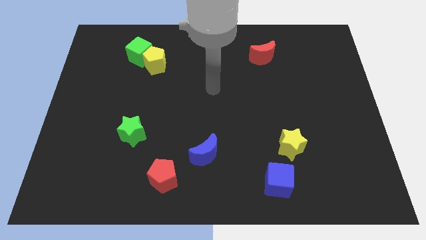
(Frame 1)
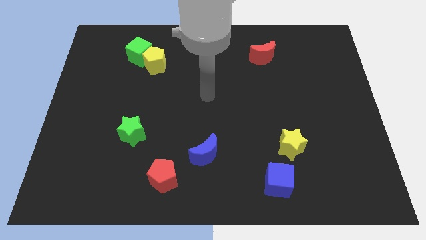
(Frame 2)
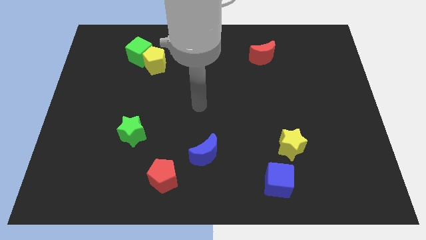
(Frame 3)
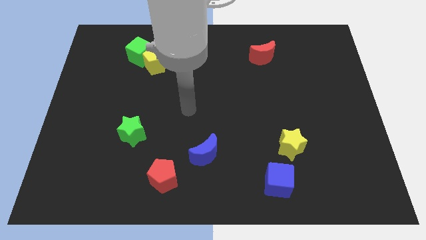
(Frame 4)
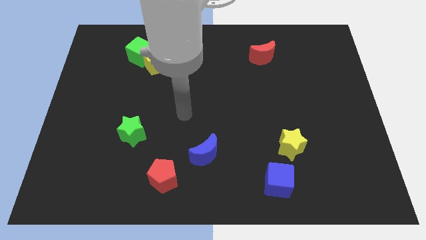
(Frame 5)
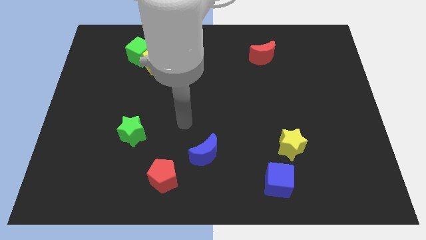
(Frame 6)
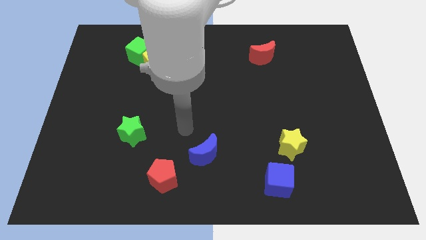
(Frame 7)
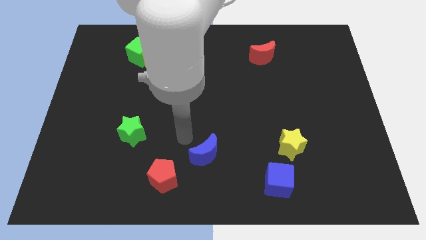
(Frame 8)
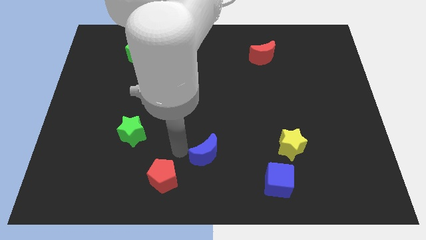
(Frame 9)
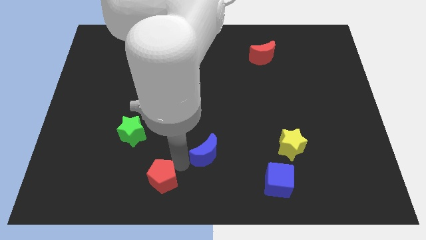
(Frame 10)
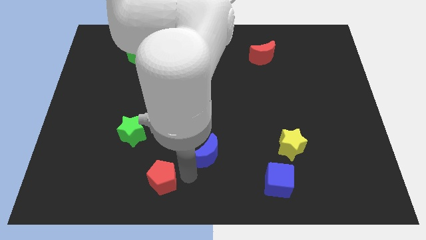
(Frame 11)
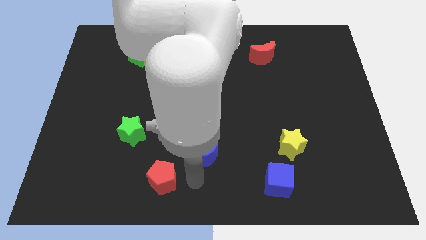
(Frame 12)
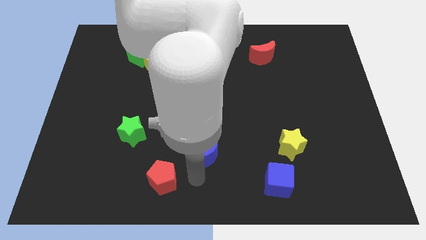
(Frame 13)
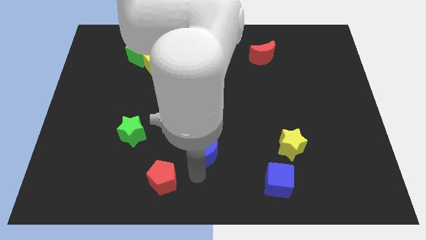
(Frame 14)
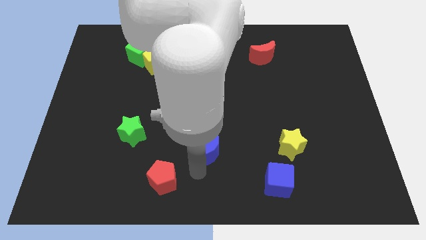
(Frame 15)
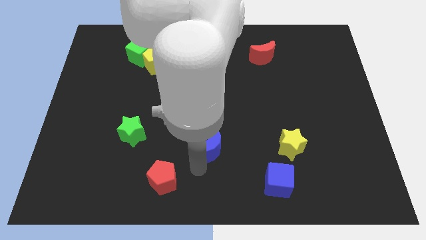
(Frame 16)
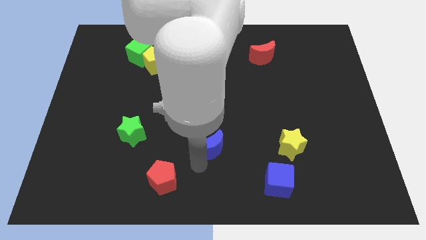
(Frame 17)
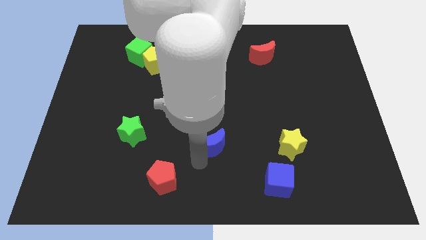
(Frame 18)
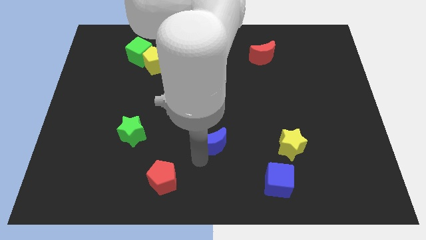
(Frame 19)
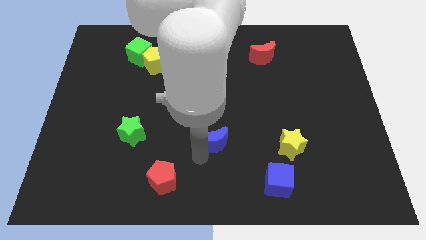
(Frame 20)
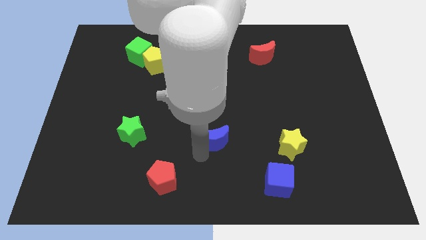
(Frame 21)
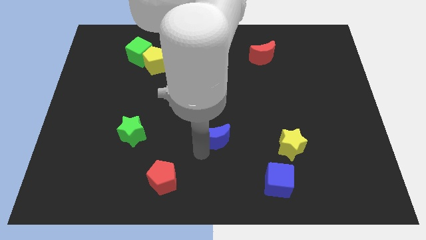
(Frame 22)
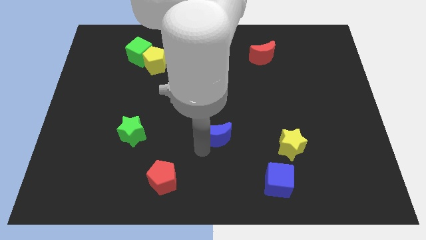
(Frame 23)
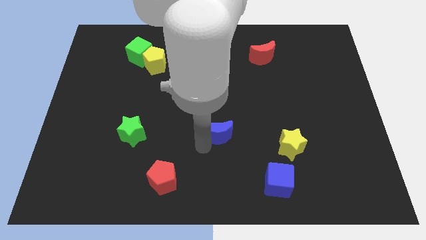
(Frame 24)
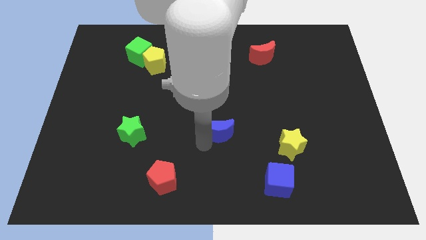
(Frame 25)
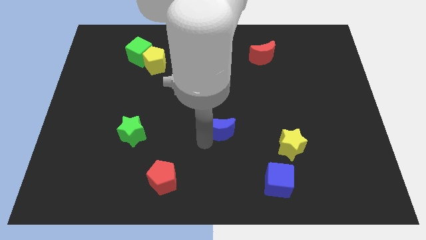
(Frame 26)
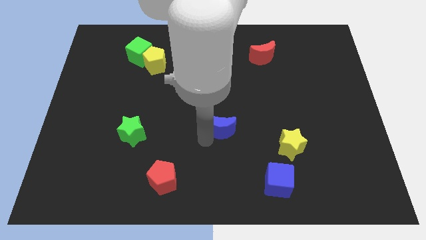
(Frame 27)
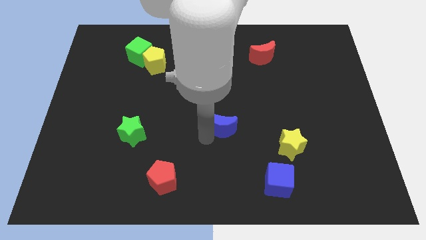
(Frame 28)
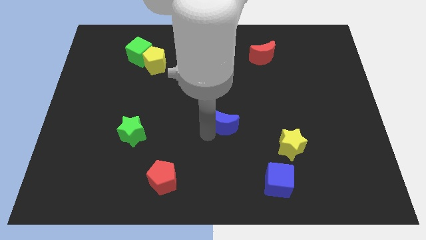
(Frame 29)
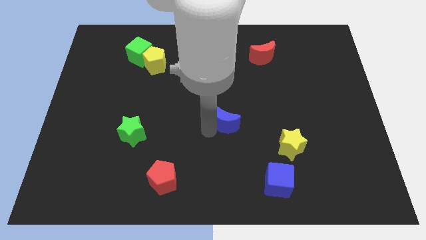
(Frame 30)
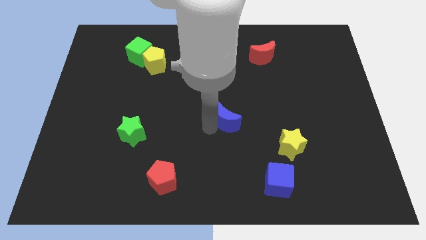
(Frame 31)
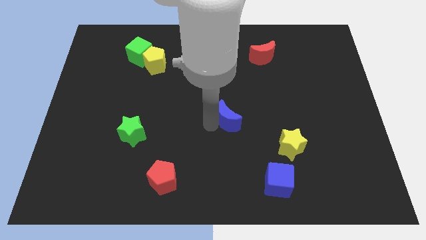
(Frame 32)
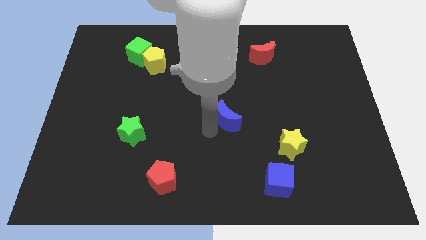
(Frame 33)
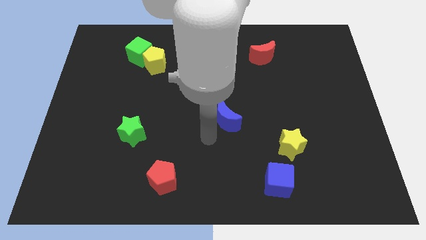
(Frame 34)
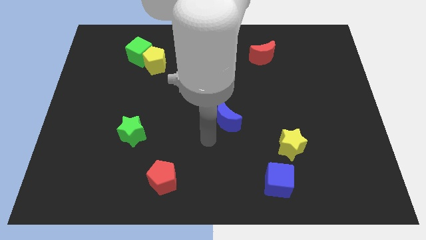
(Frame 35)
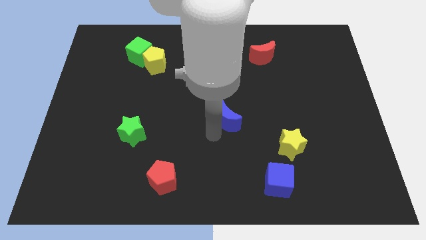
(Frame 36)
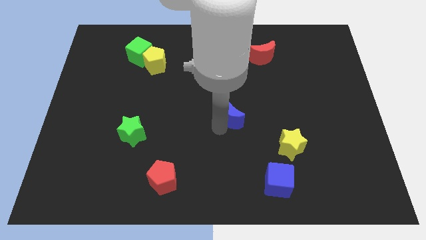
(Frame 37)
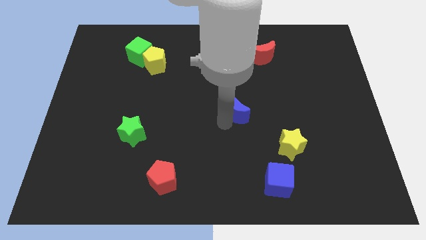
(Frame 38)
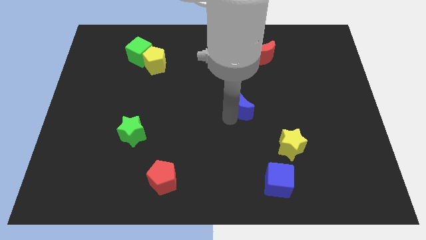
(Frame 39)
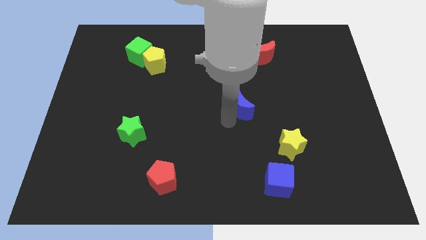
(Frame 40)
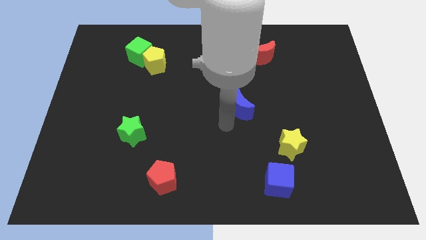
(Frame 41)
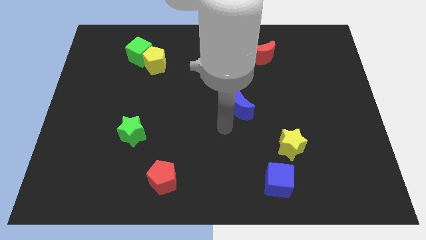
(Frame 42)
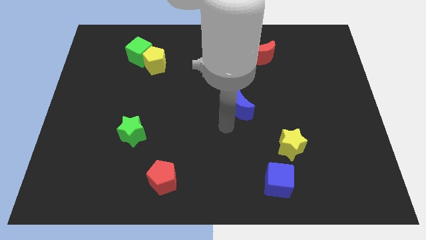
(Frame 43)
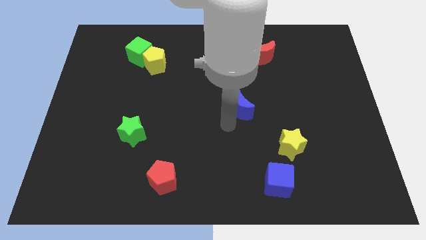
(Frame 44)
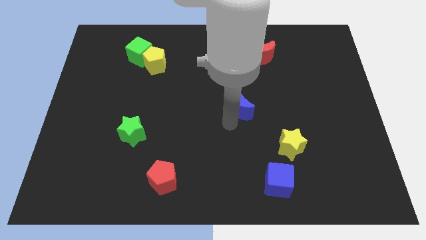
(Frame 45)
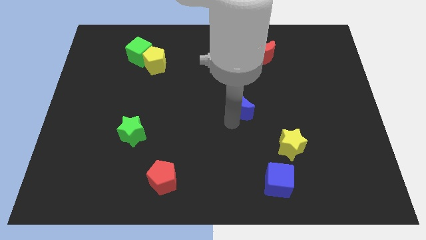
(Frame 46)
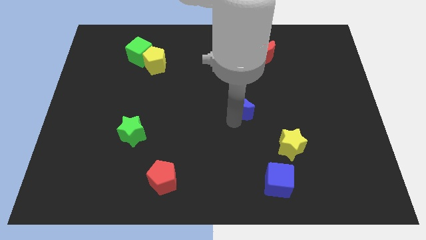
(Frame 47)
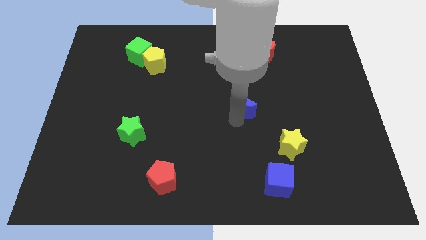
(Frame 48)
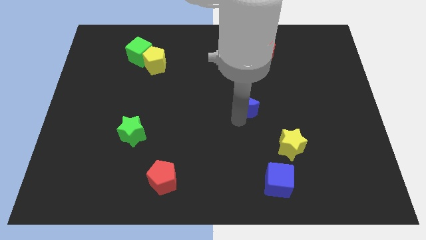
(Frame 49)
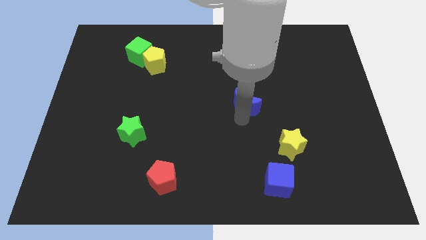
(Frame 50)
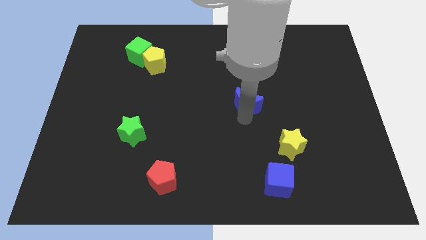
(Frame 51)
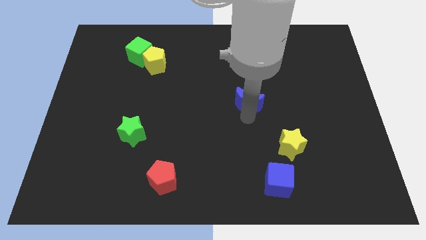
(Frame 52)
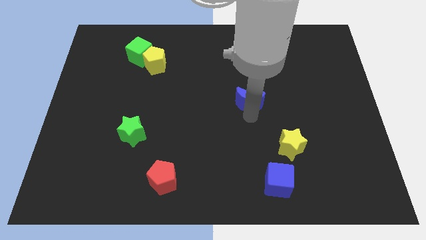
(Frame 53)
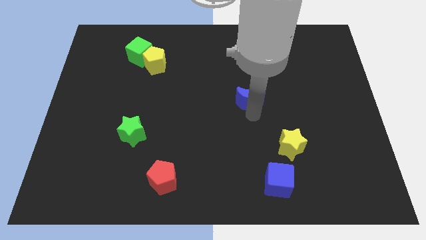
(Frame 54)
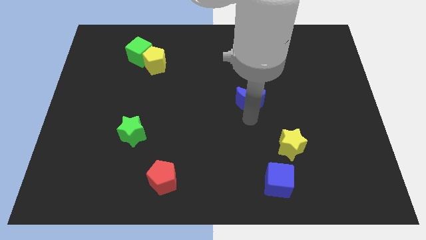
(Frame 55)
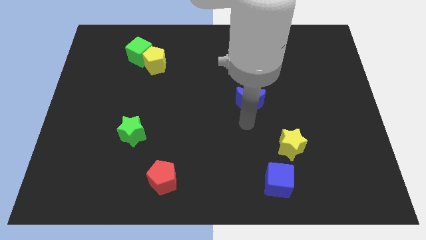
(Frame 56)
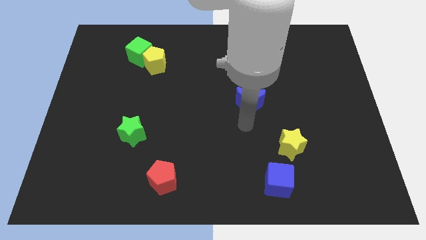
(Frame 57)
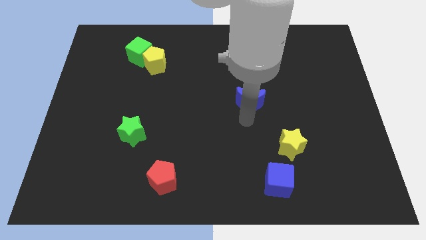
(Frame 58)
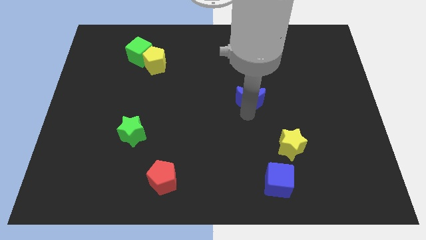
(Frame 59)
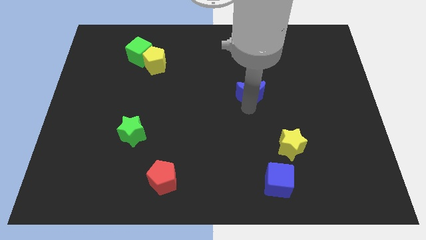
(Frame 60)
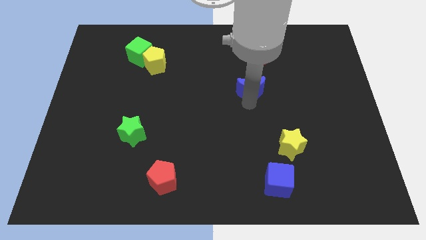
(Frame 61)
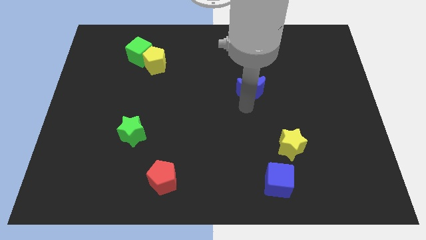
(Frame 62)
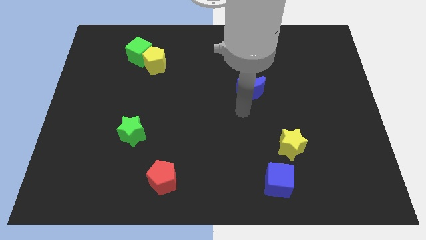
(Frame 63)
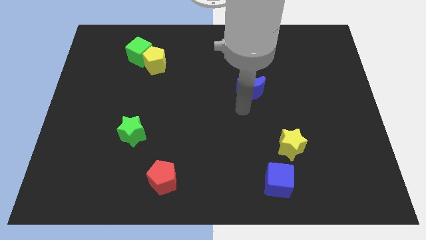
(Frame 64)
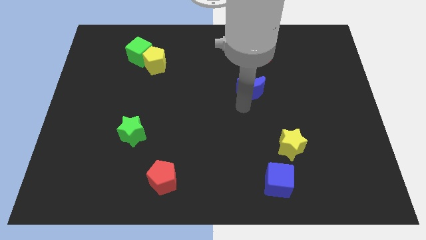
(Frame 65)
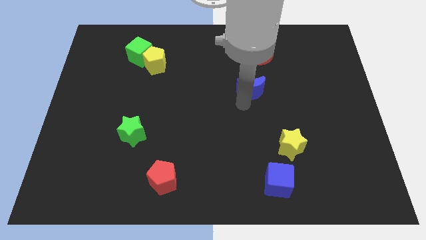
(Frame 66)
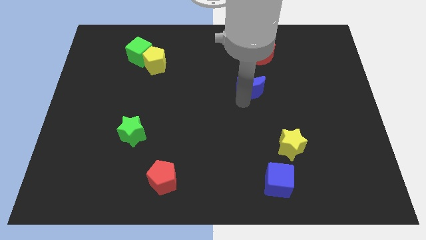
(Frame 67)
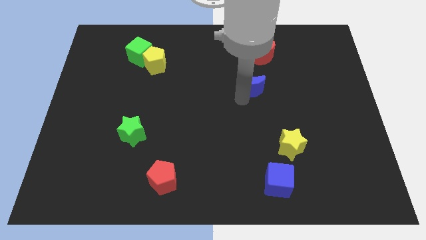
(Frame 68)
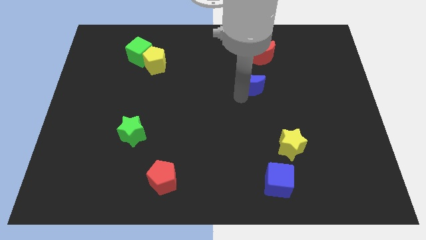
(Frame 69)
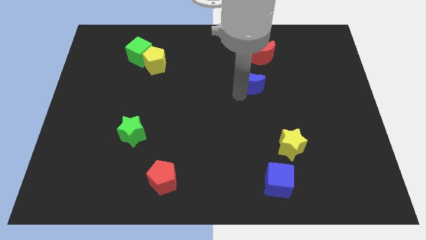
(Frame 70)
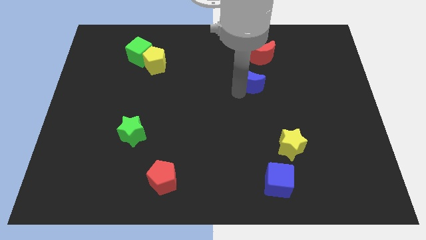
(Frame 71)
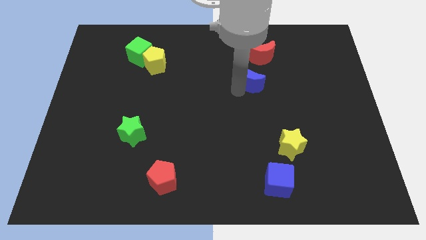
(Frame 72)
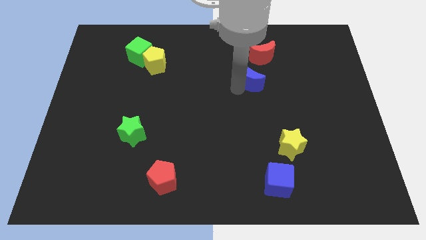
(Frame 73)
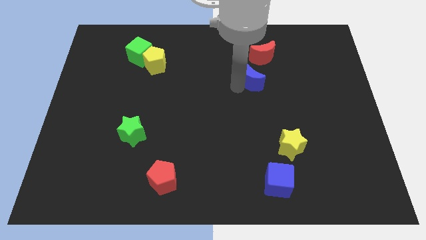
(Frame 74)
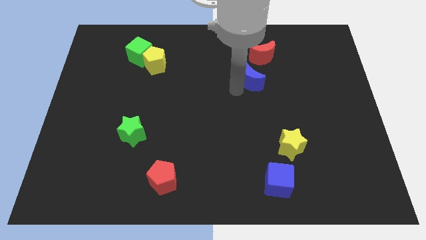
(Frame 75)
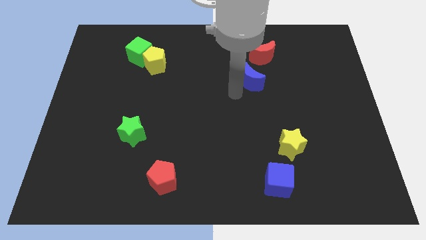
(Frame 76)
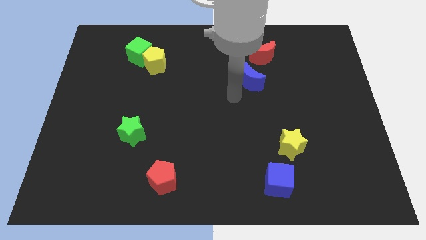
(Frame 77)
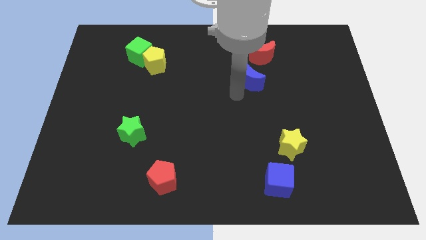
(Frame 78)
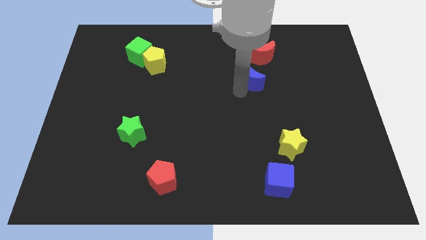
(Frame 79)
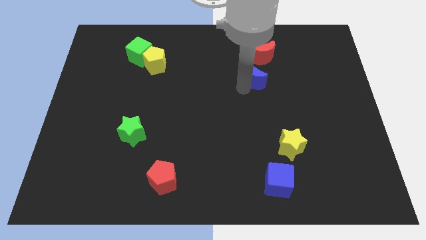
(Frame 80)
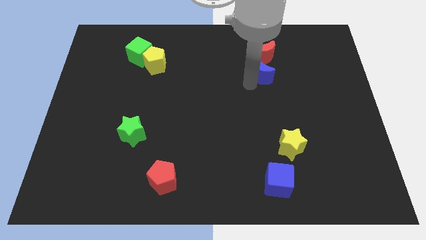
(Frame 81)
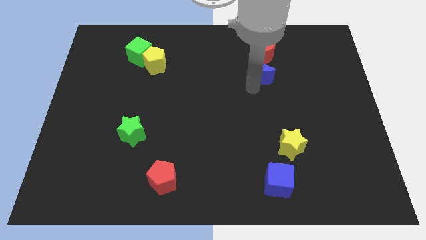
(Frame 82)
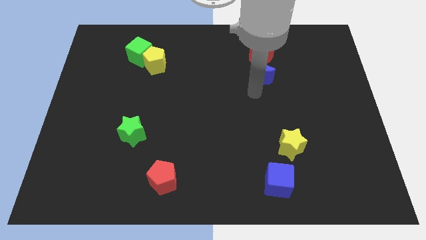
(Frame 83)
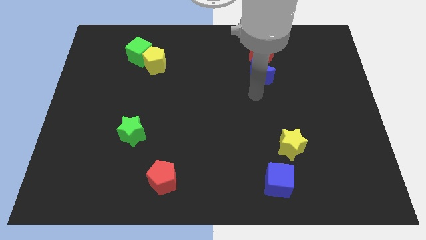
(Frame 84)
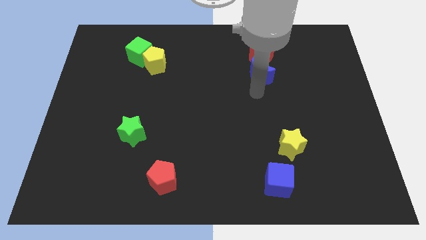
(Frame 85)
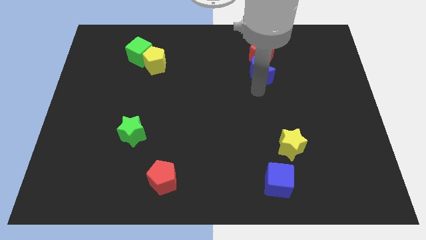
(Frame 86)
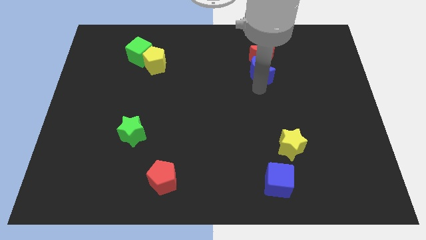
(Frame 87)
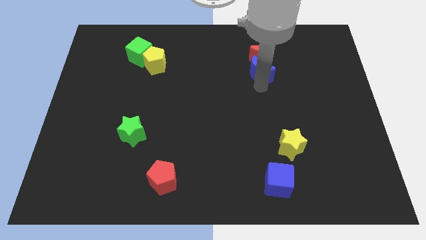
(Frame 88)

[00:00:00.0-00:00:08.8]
slide the blue moon to the red moon
